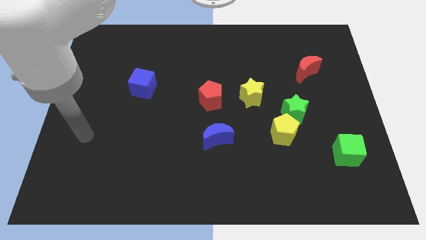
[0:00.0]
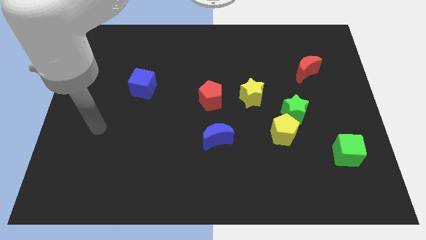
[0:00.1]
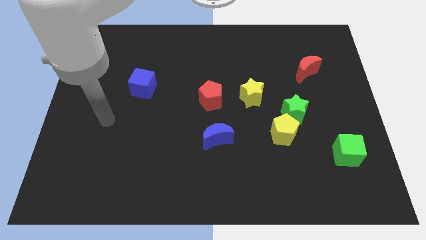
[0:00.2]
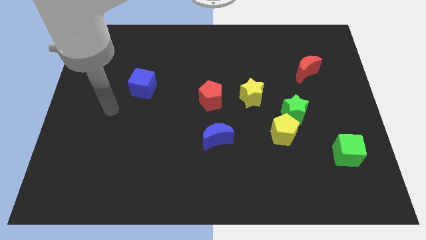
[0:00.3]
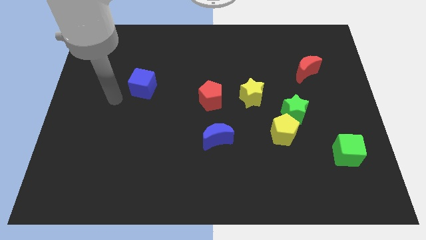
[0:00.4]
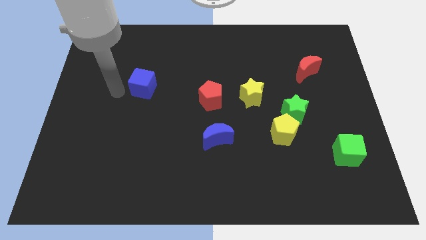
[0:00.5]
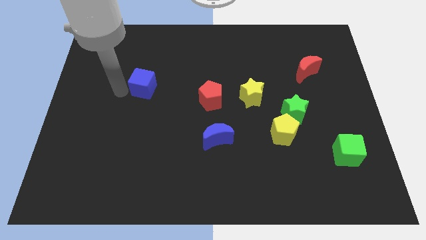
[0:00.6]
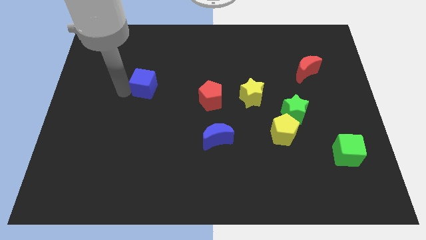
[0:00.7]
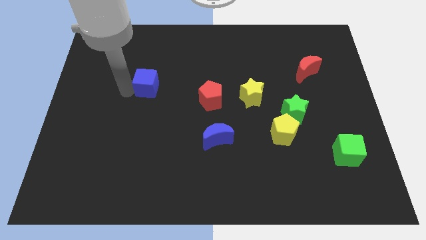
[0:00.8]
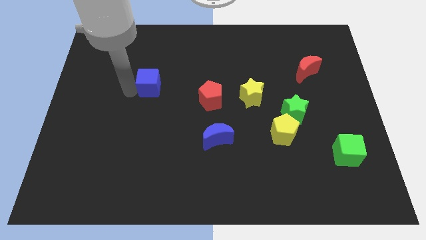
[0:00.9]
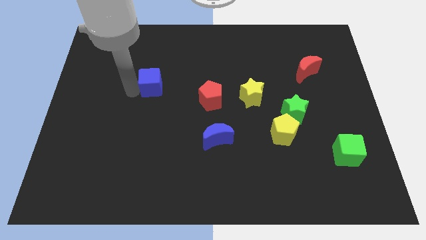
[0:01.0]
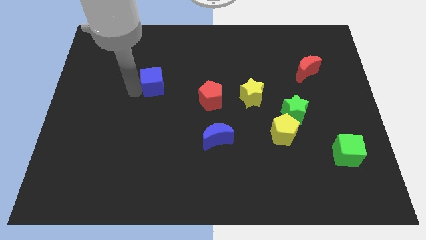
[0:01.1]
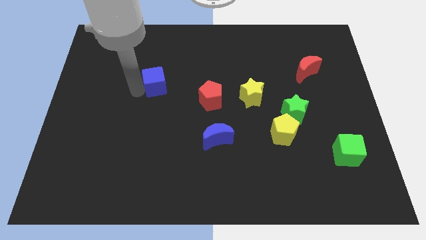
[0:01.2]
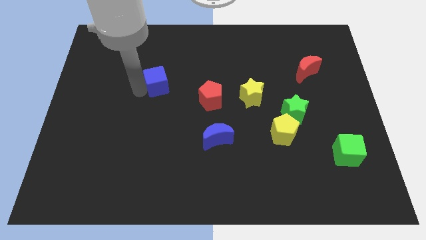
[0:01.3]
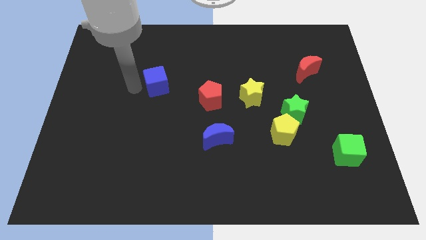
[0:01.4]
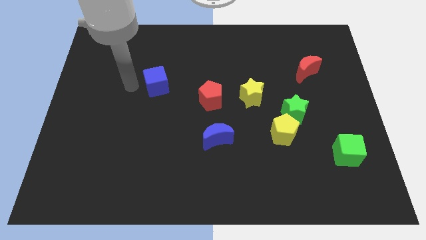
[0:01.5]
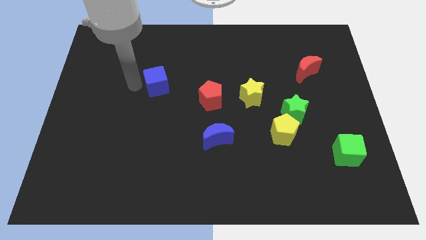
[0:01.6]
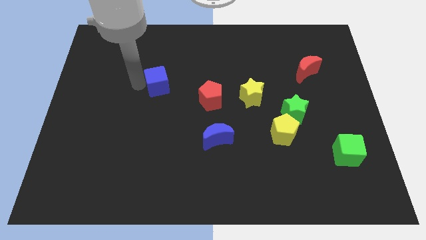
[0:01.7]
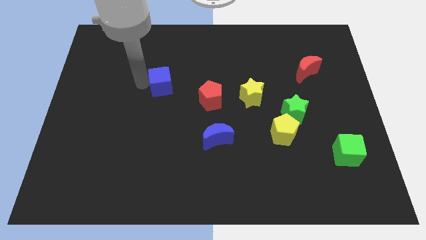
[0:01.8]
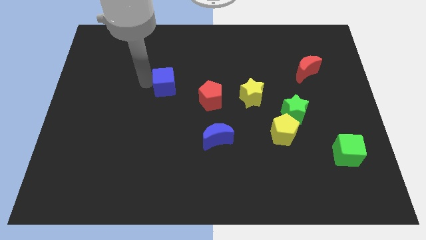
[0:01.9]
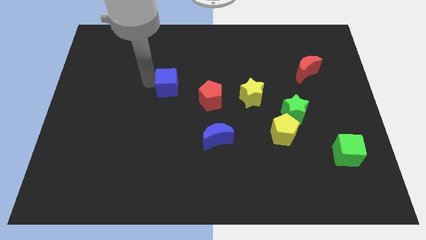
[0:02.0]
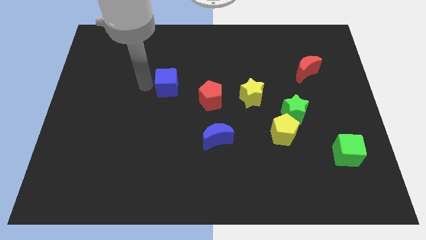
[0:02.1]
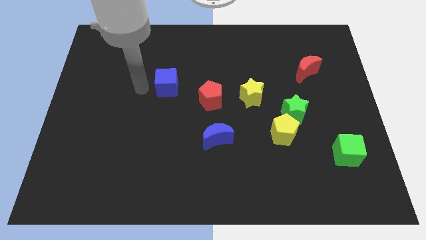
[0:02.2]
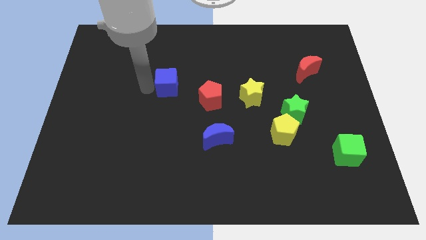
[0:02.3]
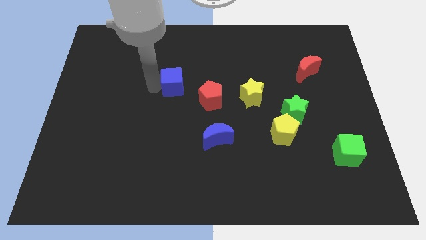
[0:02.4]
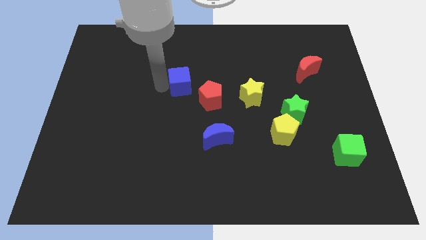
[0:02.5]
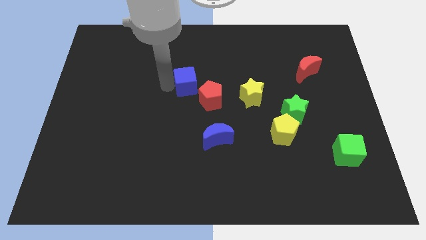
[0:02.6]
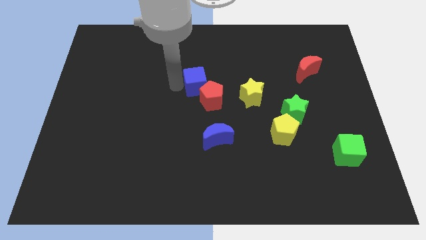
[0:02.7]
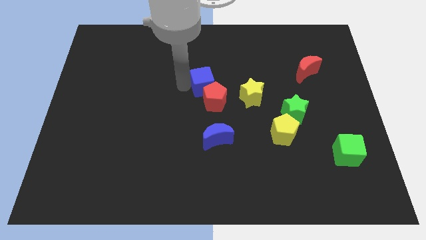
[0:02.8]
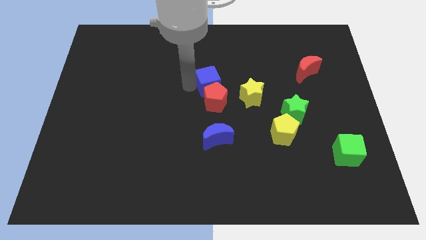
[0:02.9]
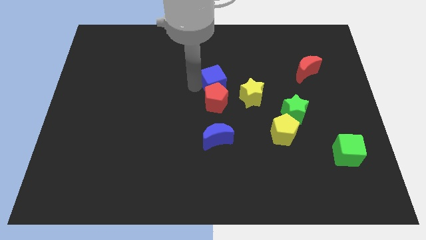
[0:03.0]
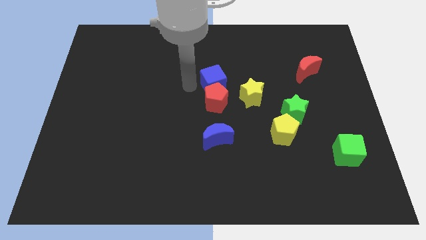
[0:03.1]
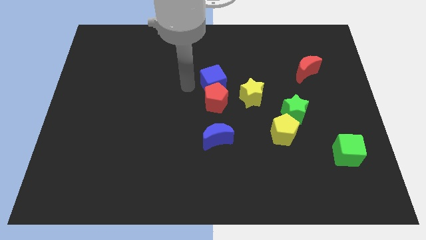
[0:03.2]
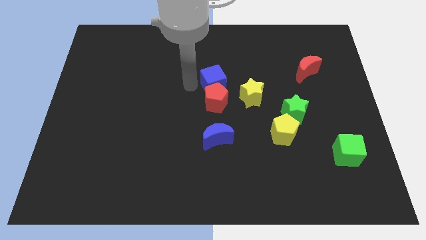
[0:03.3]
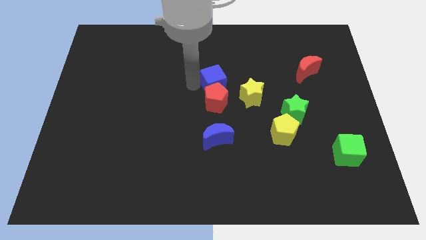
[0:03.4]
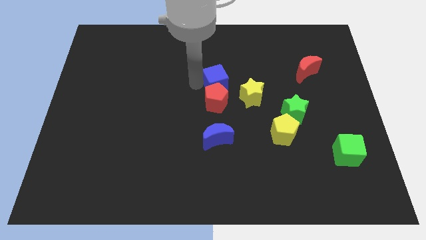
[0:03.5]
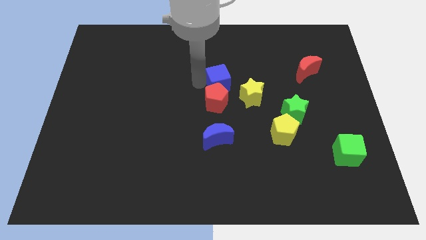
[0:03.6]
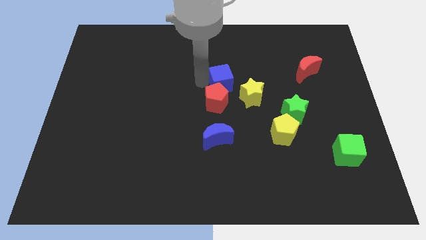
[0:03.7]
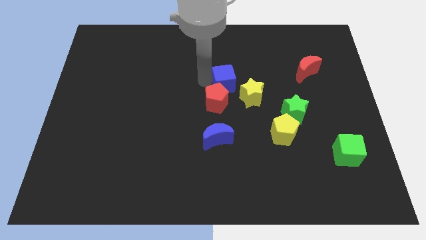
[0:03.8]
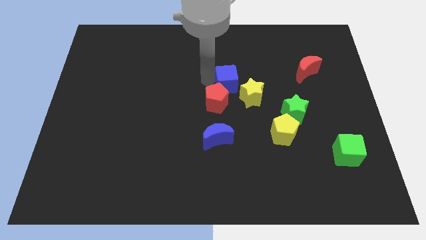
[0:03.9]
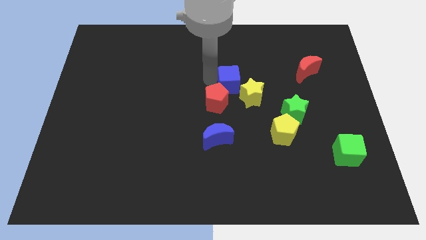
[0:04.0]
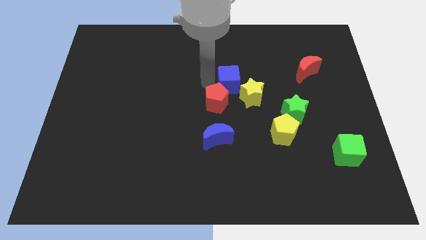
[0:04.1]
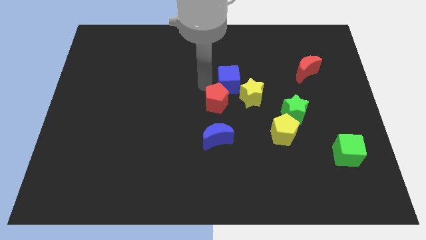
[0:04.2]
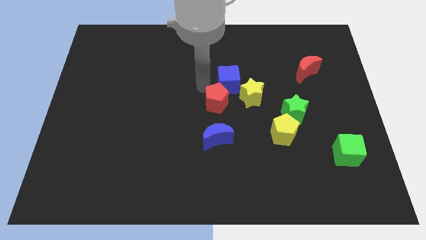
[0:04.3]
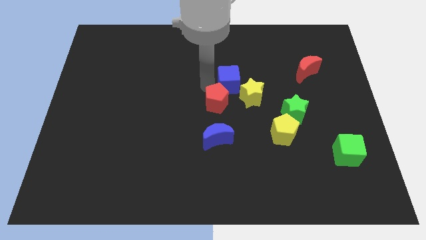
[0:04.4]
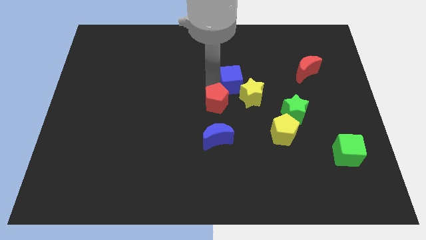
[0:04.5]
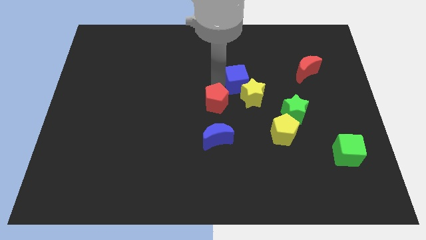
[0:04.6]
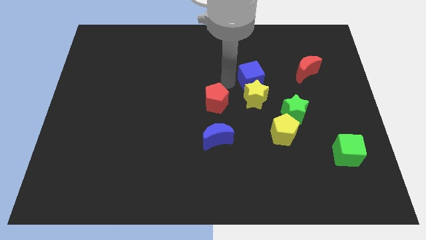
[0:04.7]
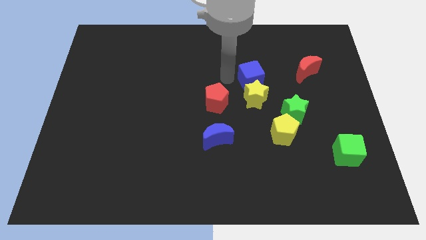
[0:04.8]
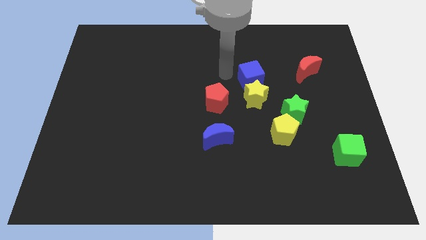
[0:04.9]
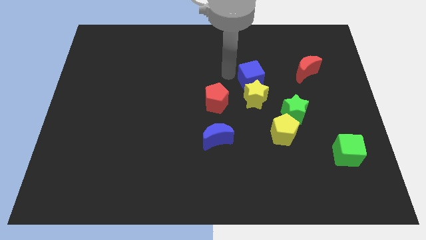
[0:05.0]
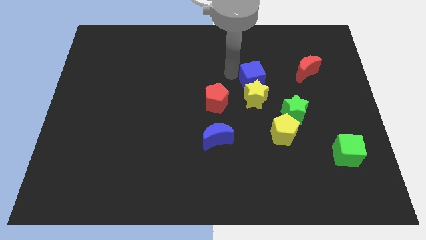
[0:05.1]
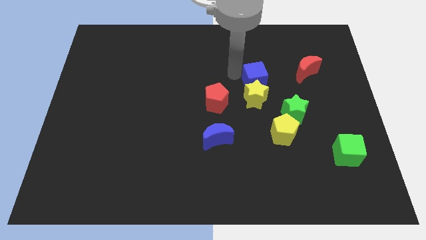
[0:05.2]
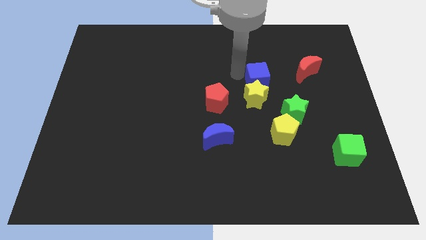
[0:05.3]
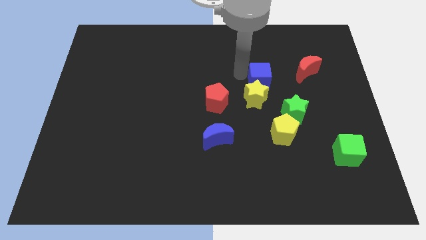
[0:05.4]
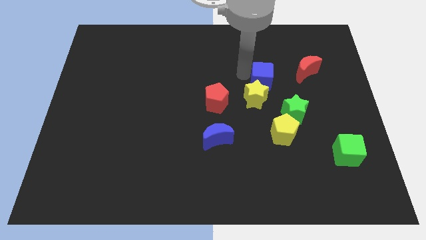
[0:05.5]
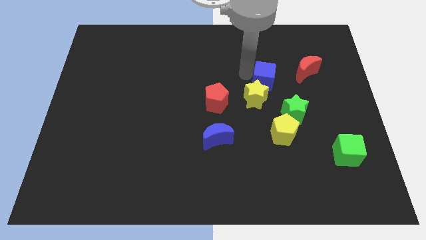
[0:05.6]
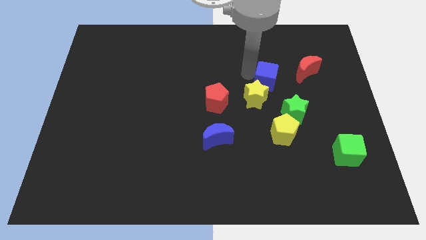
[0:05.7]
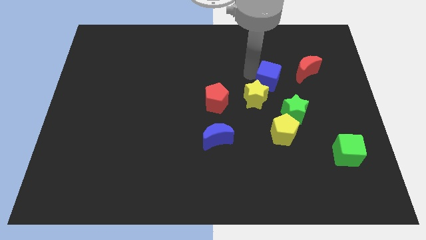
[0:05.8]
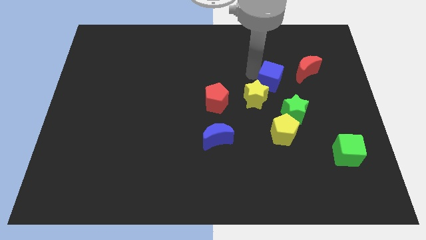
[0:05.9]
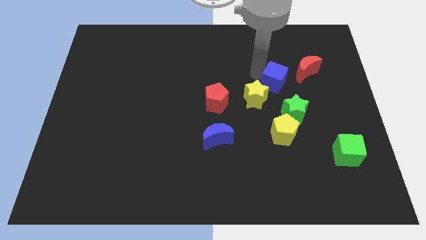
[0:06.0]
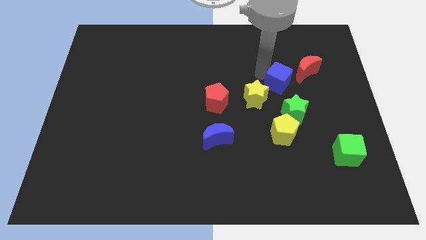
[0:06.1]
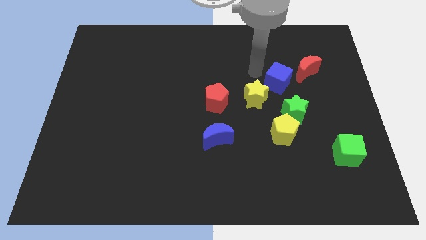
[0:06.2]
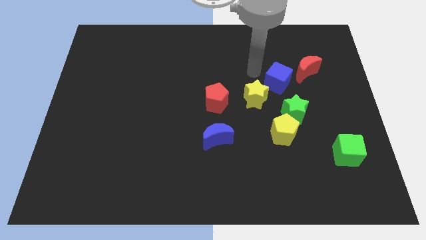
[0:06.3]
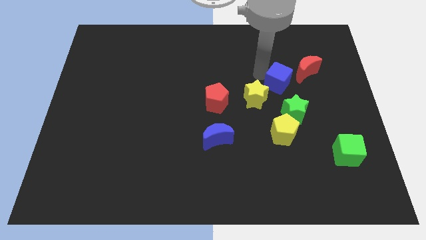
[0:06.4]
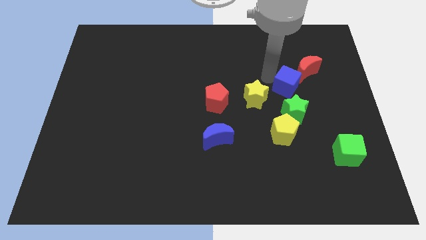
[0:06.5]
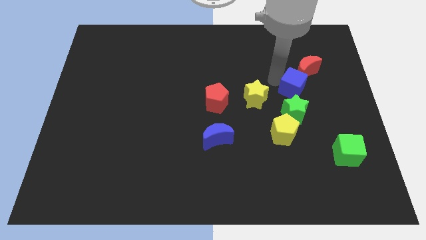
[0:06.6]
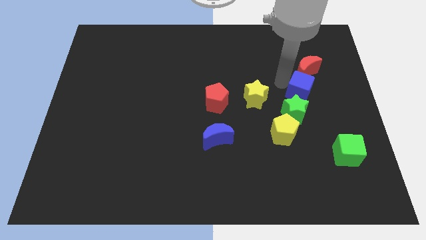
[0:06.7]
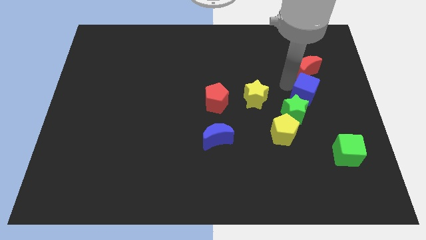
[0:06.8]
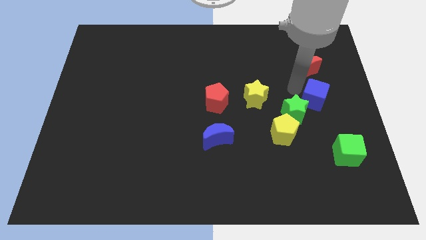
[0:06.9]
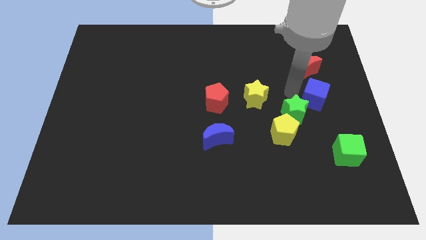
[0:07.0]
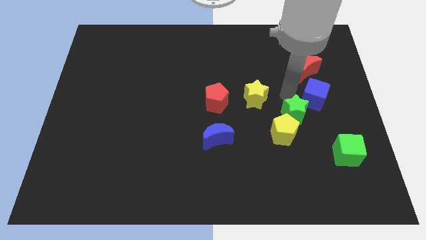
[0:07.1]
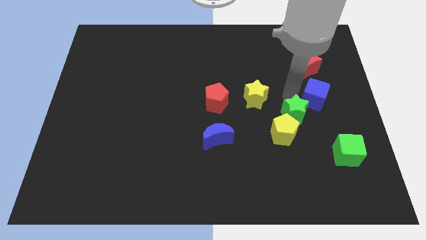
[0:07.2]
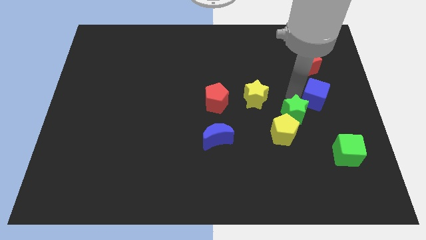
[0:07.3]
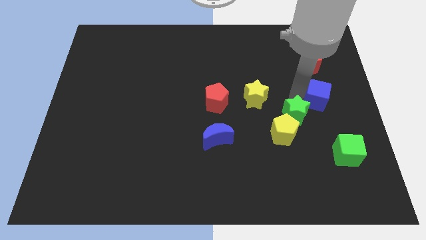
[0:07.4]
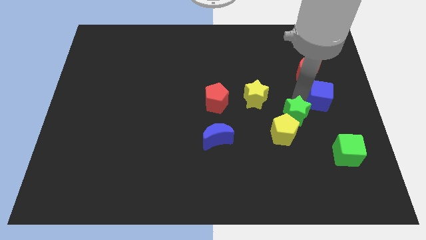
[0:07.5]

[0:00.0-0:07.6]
slide the blue cube to the center right
